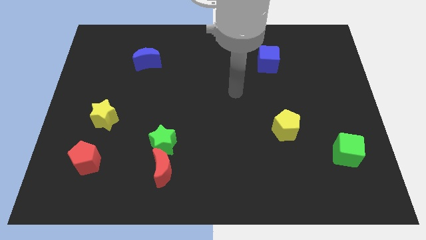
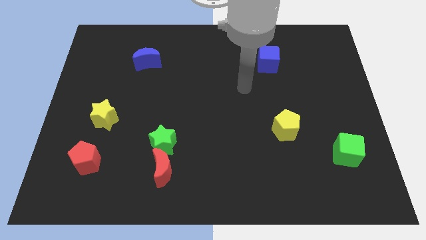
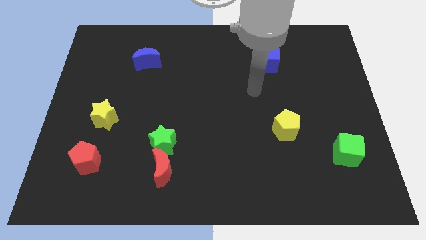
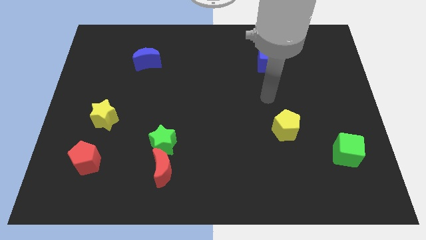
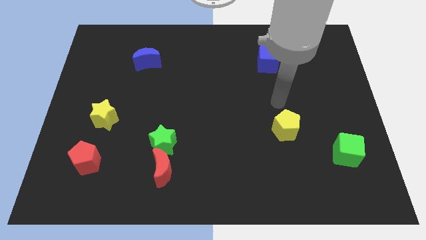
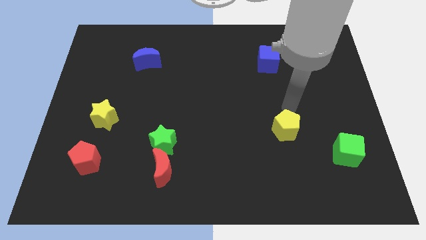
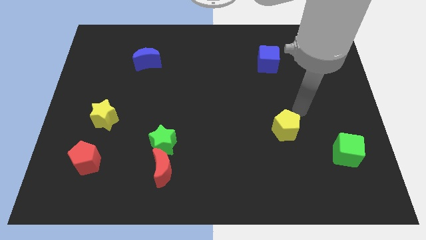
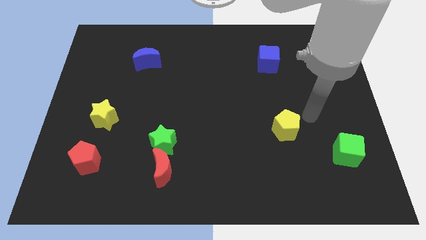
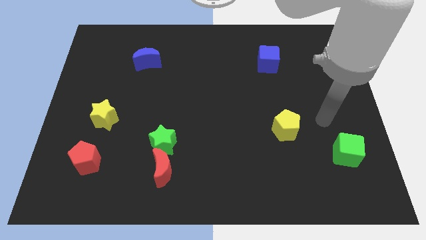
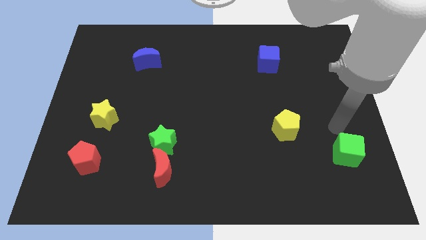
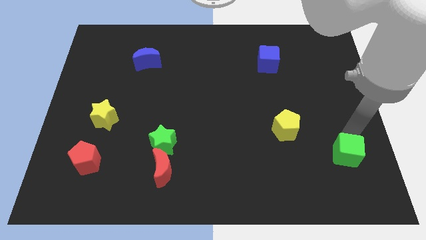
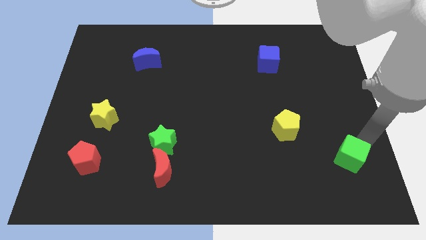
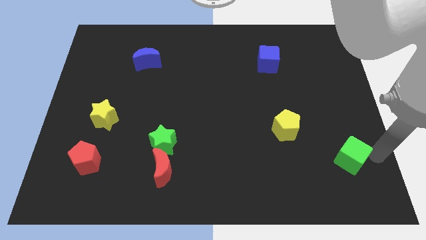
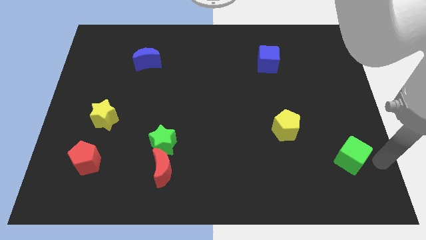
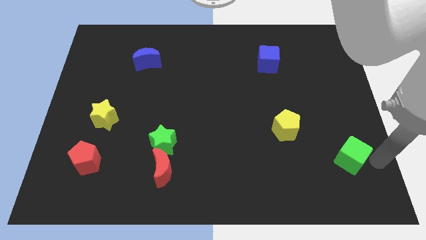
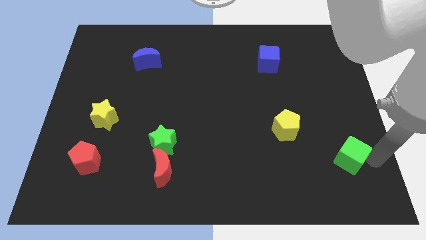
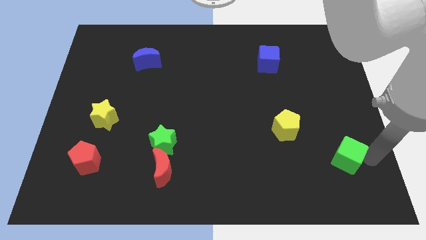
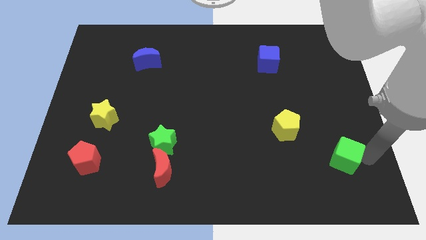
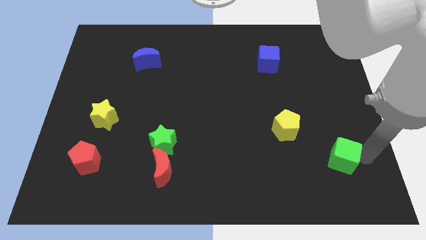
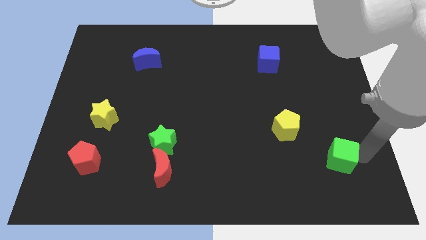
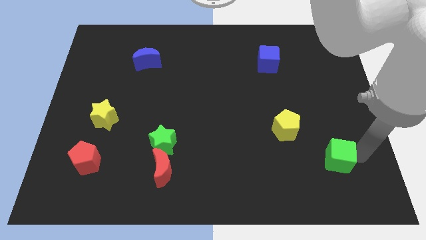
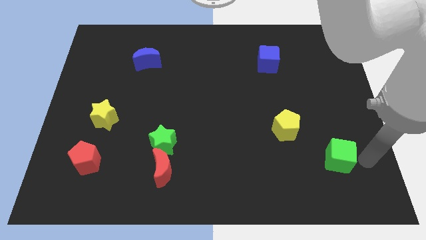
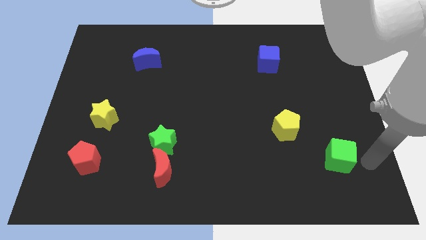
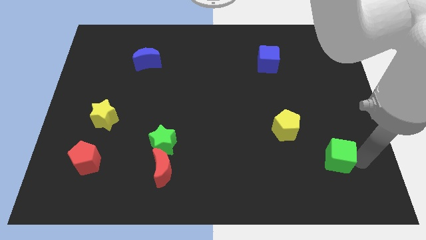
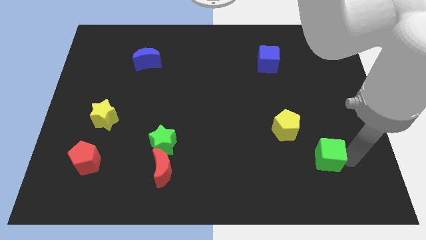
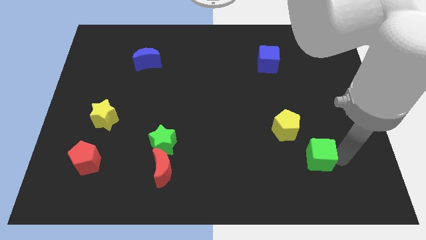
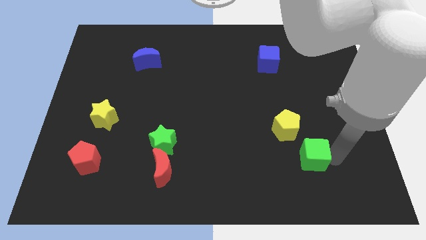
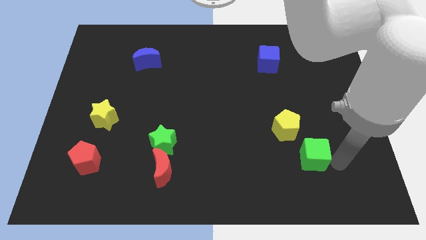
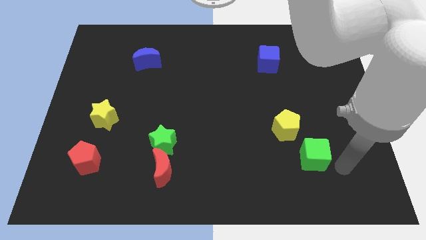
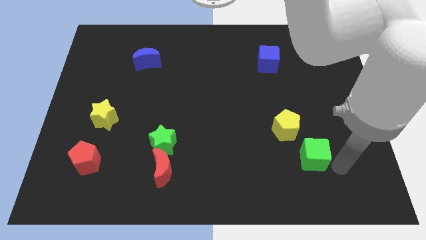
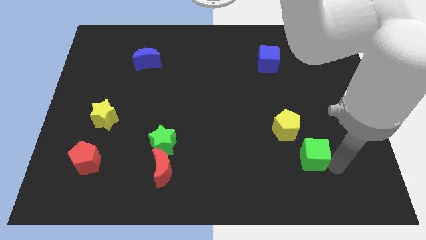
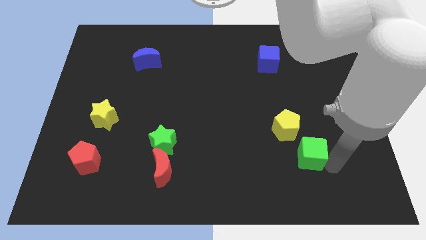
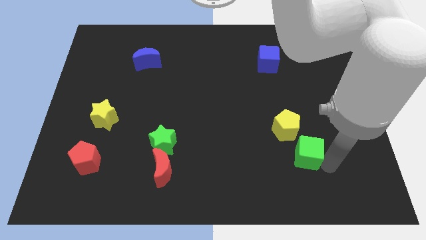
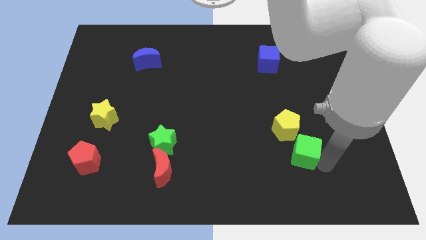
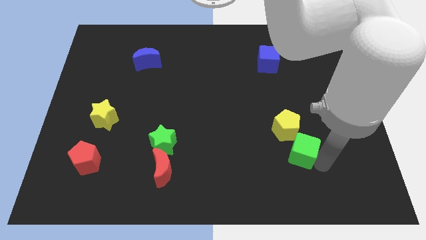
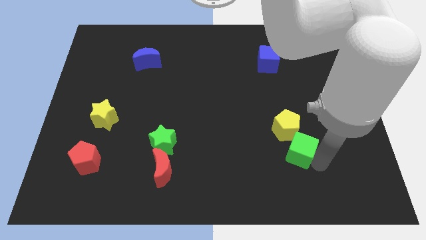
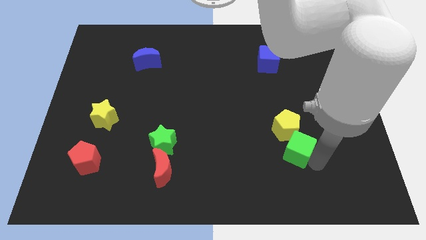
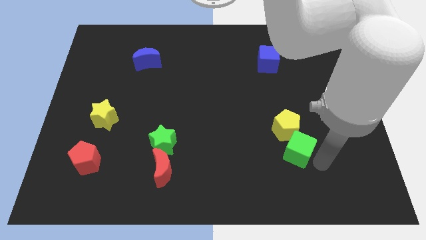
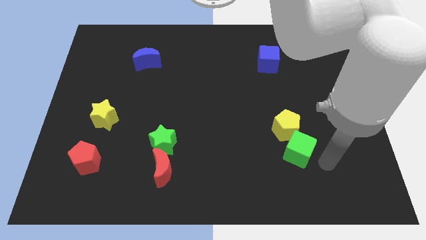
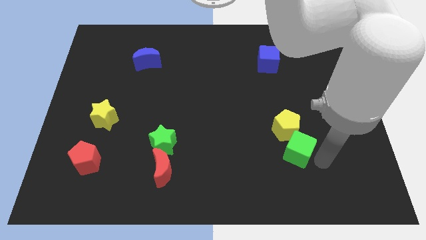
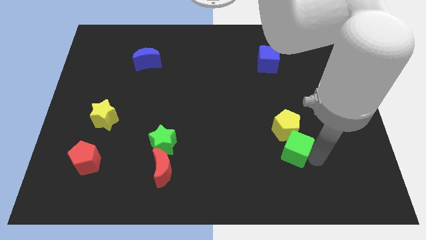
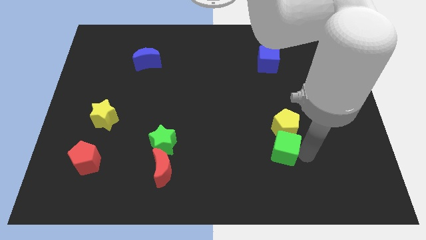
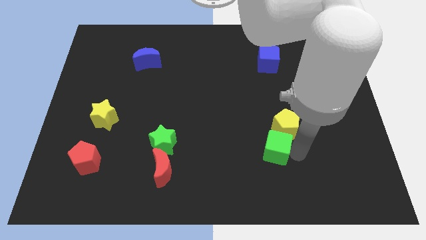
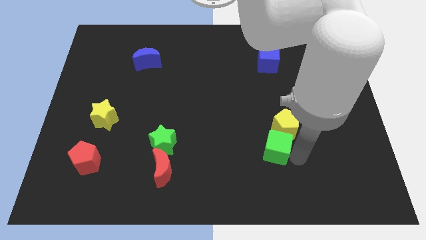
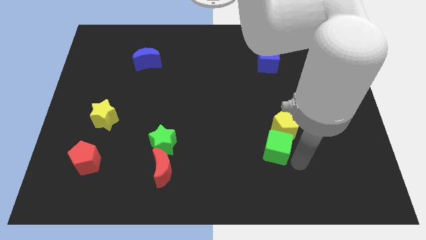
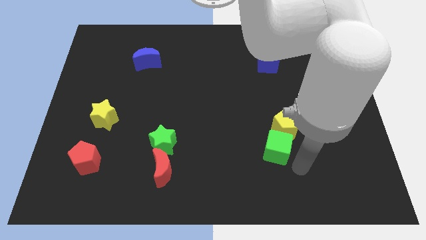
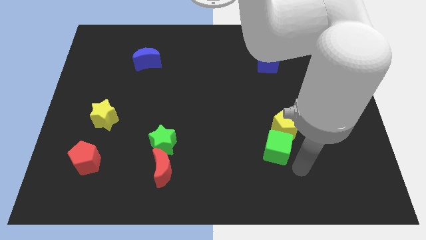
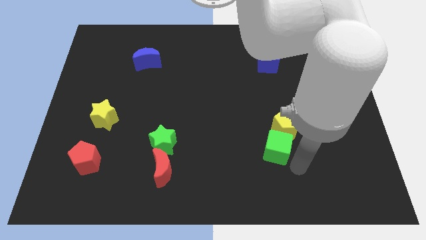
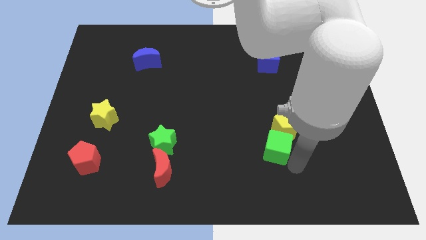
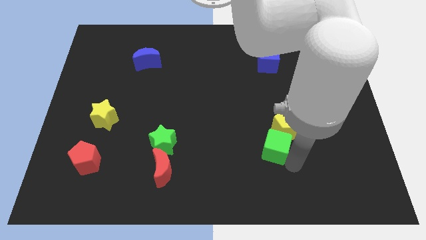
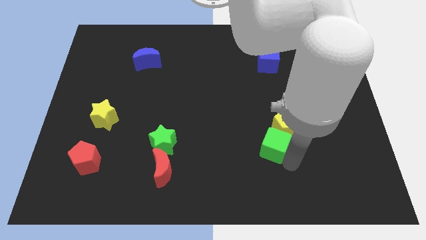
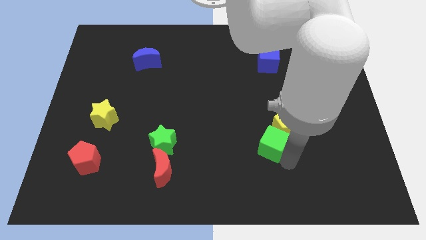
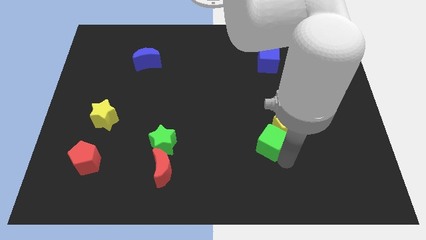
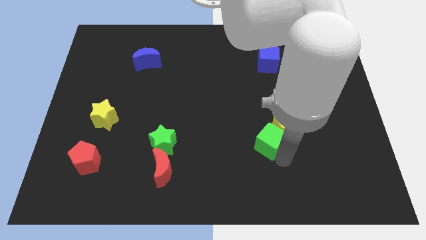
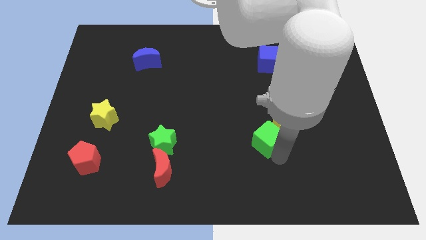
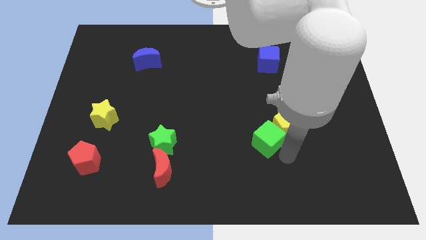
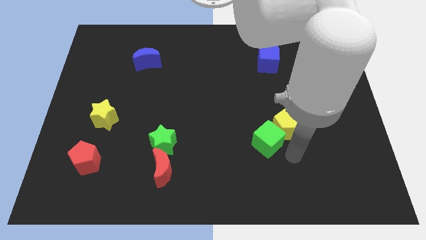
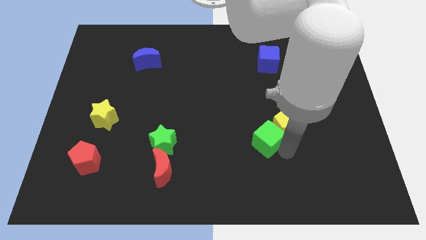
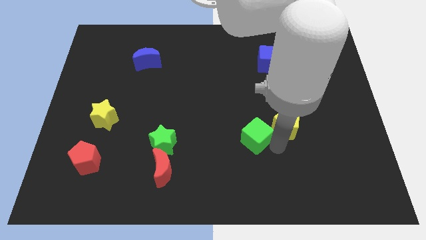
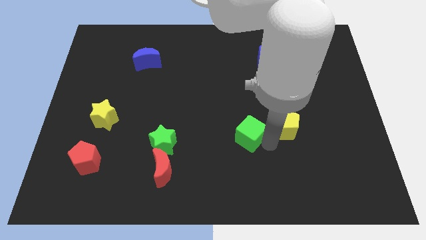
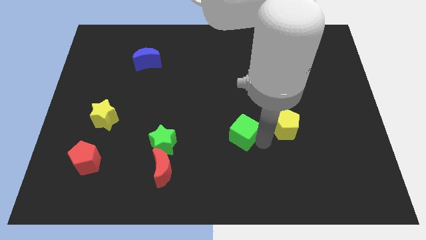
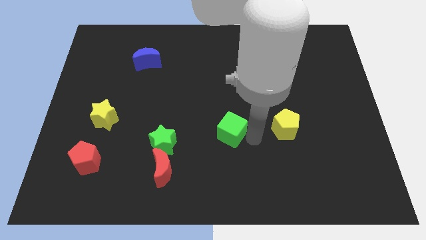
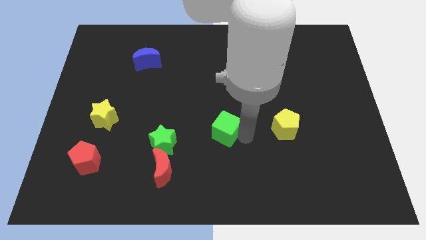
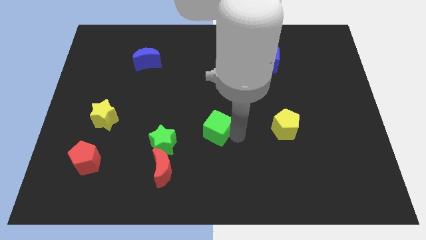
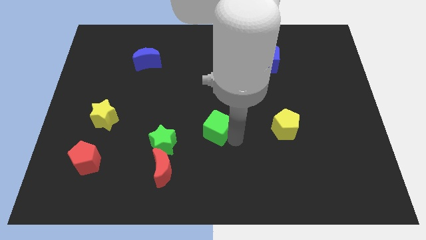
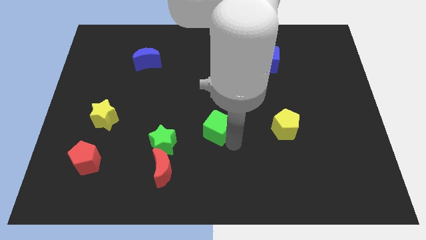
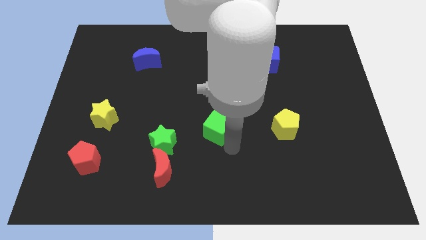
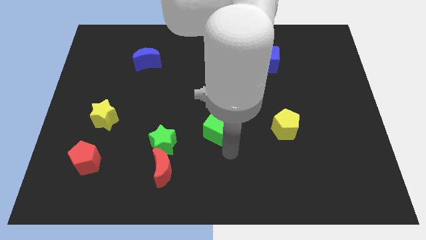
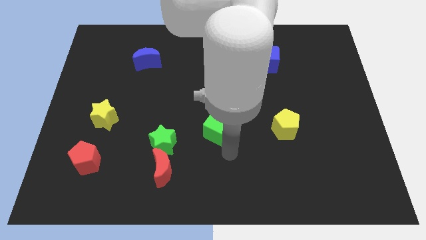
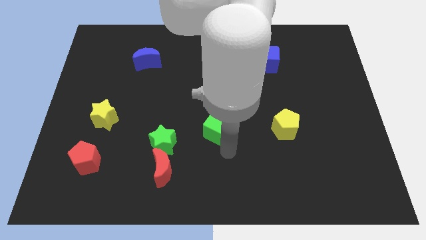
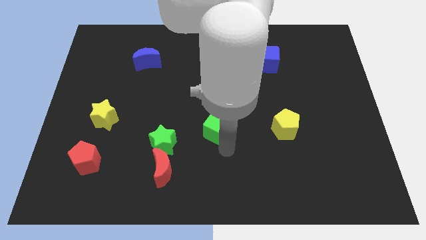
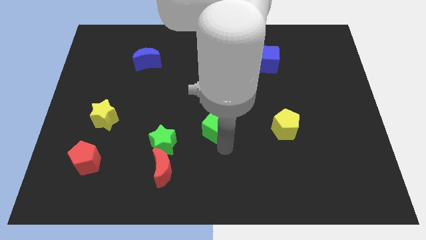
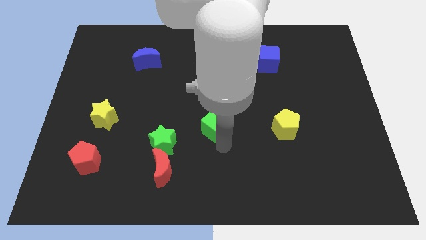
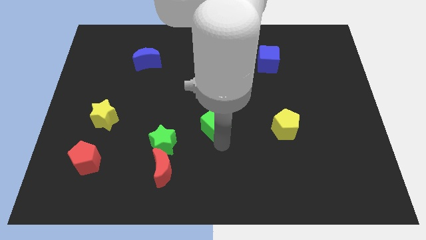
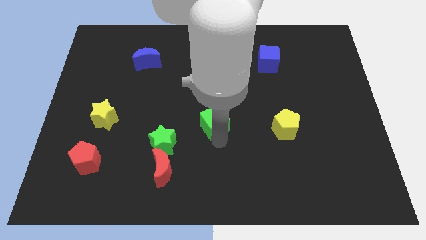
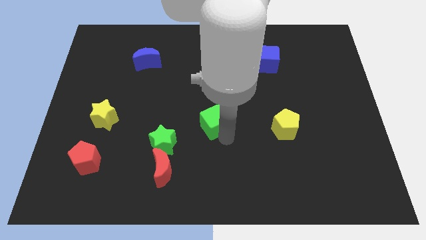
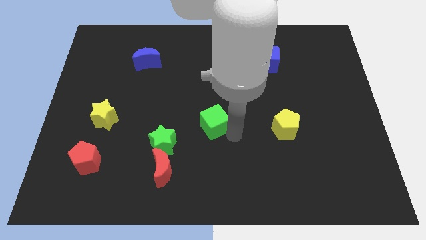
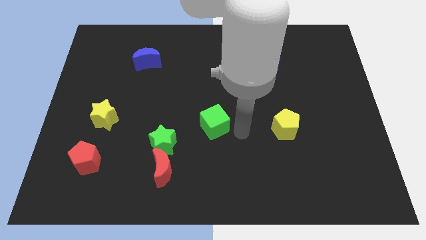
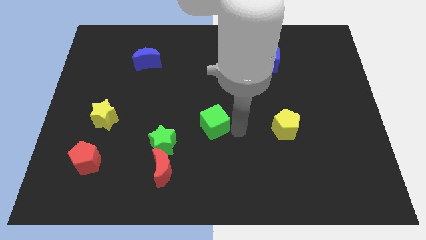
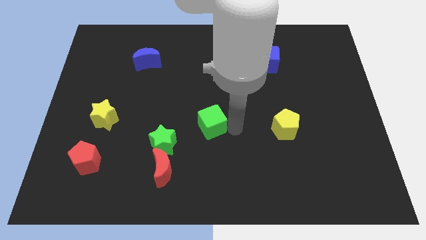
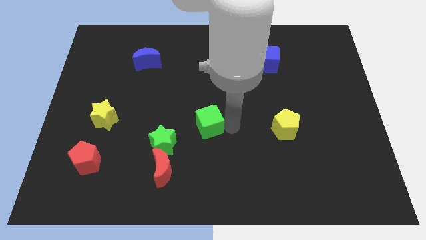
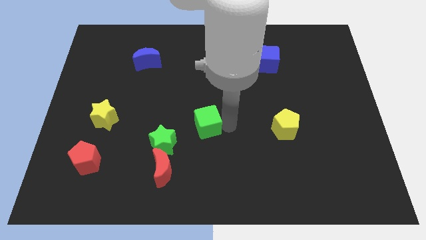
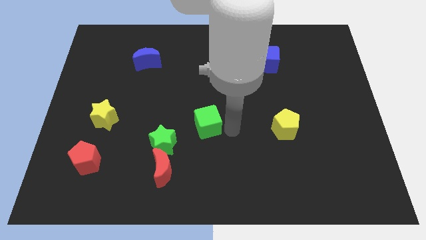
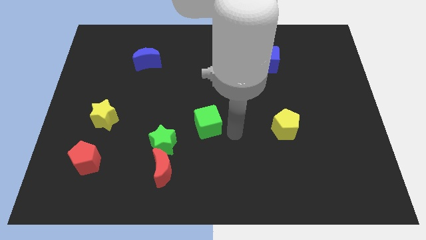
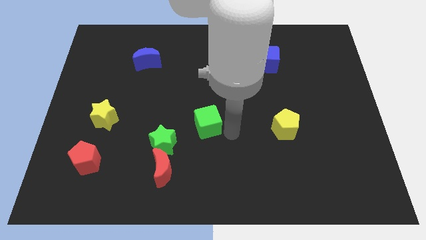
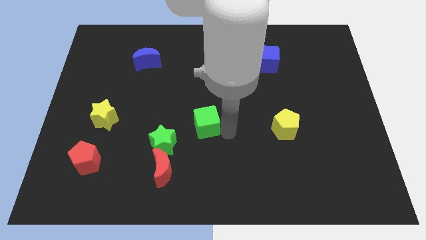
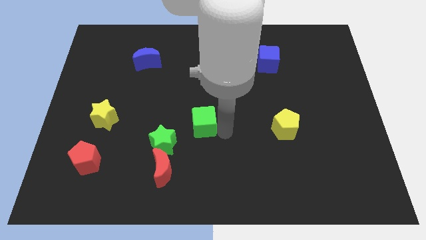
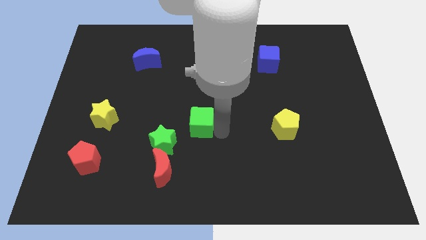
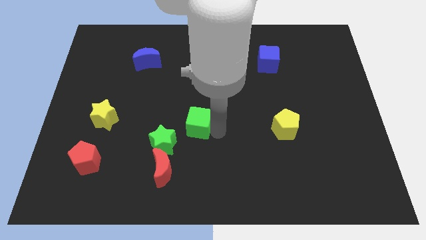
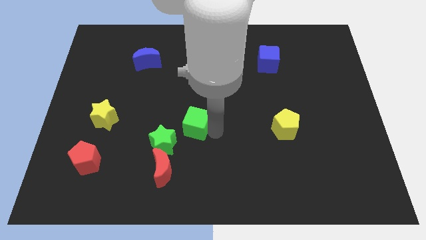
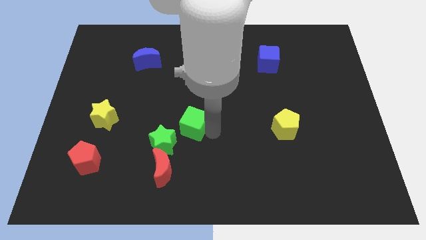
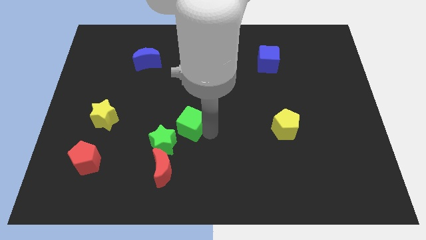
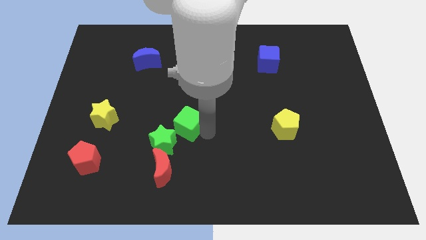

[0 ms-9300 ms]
push the green cube above the red moon
